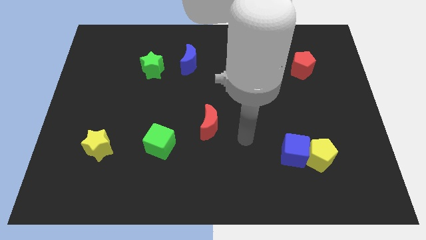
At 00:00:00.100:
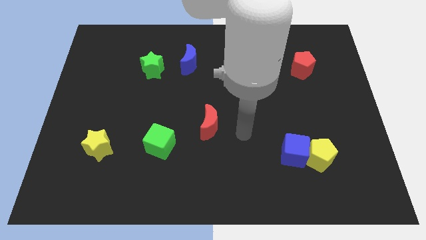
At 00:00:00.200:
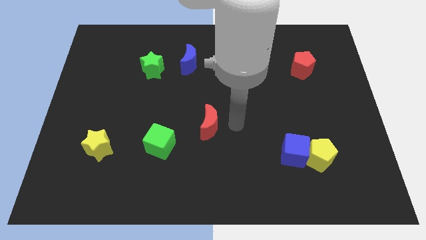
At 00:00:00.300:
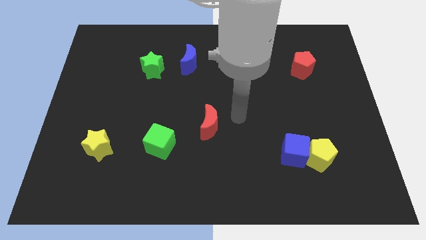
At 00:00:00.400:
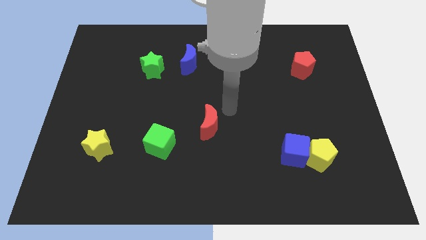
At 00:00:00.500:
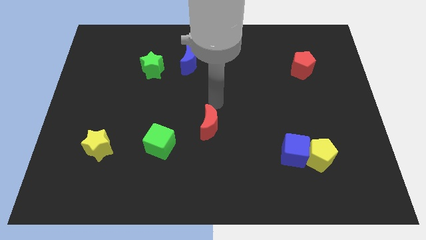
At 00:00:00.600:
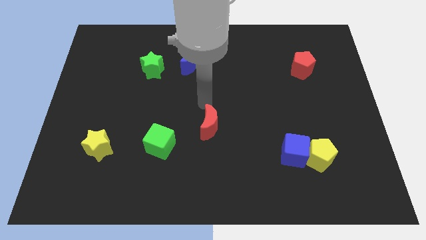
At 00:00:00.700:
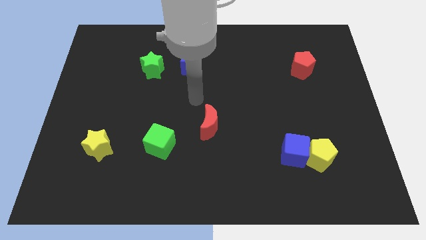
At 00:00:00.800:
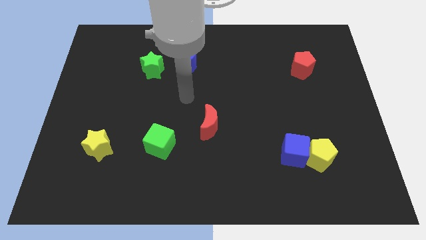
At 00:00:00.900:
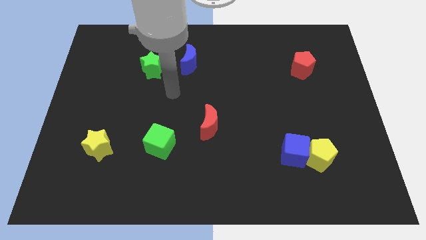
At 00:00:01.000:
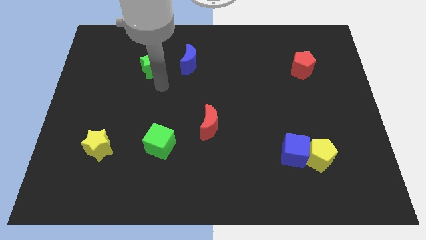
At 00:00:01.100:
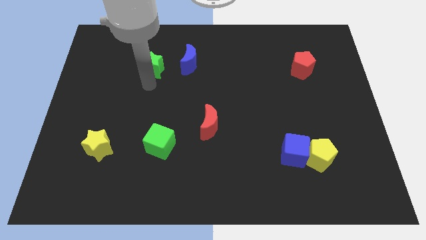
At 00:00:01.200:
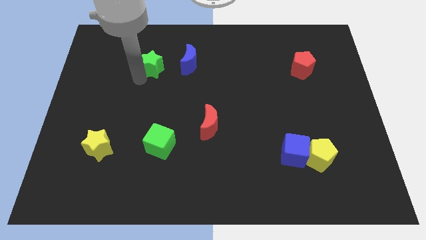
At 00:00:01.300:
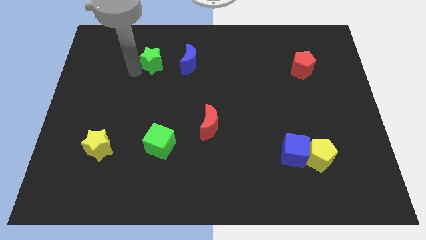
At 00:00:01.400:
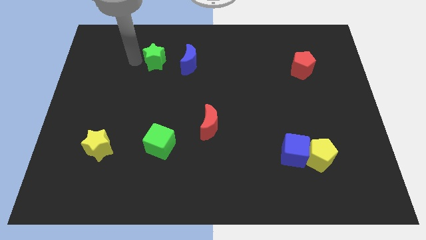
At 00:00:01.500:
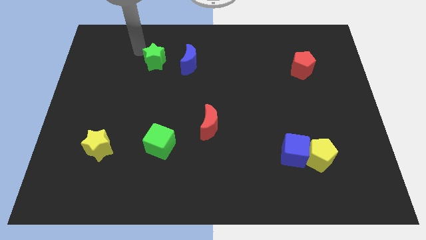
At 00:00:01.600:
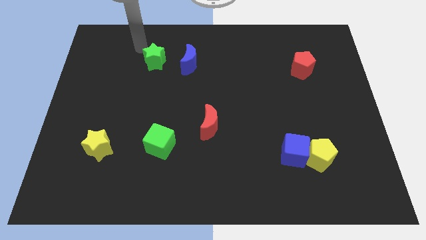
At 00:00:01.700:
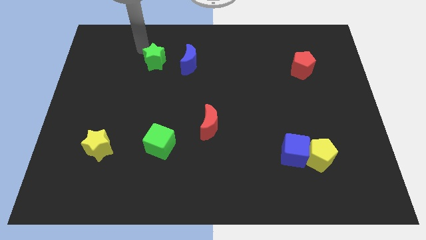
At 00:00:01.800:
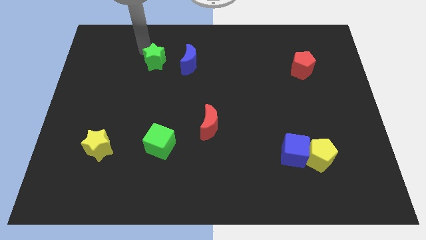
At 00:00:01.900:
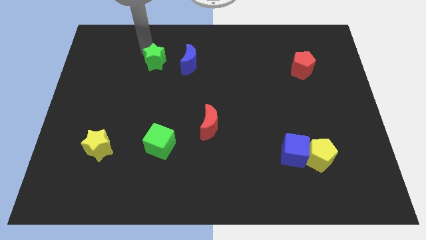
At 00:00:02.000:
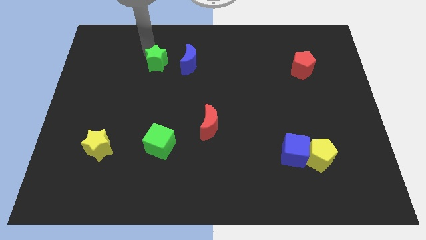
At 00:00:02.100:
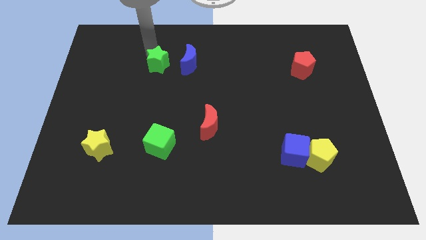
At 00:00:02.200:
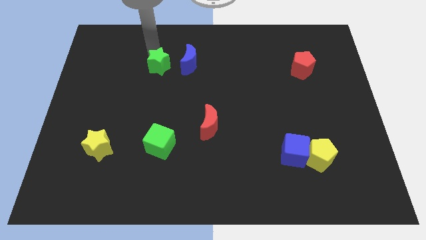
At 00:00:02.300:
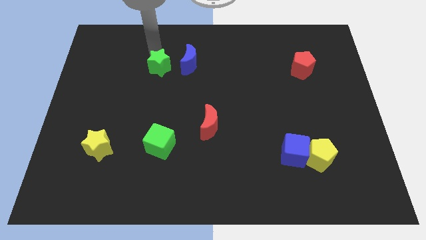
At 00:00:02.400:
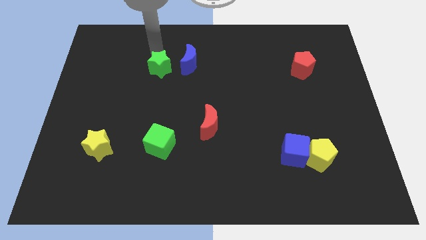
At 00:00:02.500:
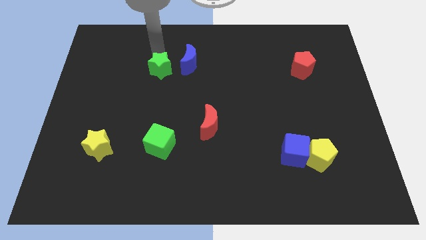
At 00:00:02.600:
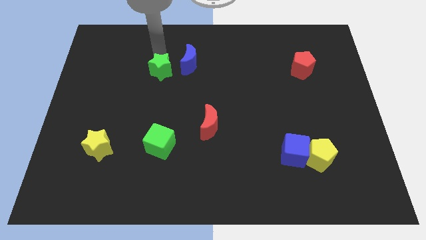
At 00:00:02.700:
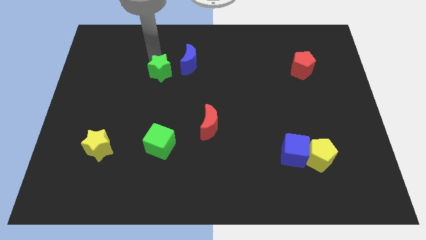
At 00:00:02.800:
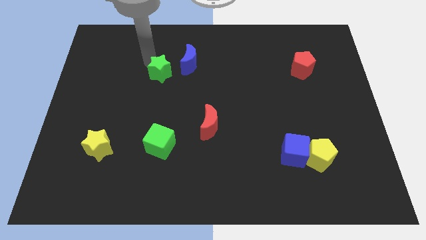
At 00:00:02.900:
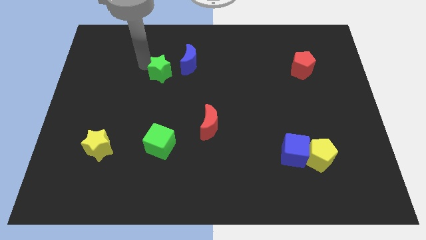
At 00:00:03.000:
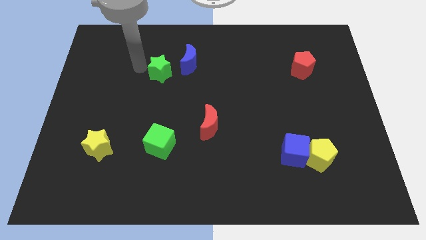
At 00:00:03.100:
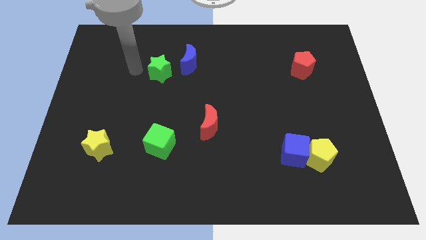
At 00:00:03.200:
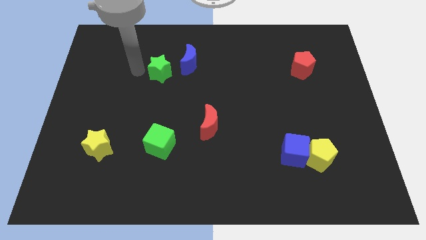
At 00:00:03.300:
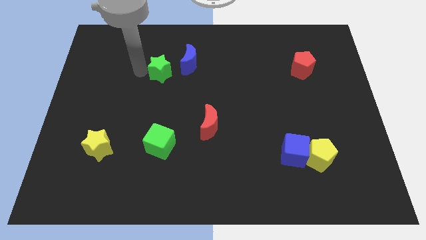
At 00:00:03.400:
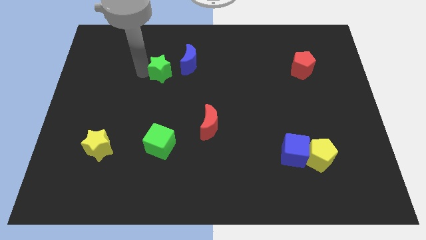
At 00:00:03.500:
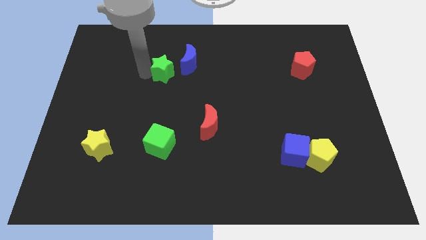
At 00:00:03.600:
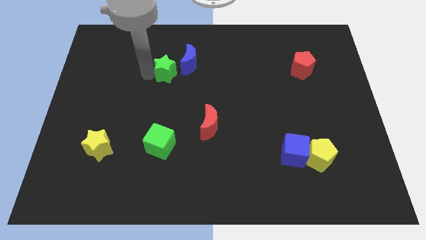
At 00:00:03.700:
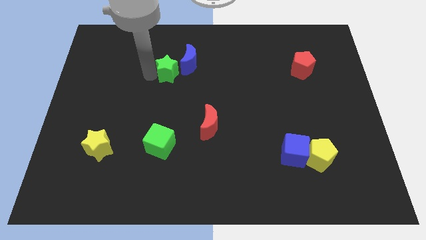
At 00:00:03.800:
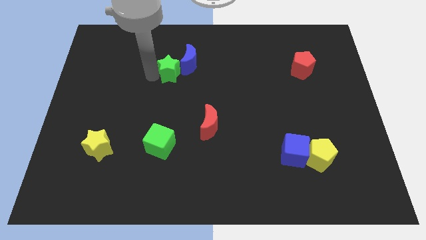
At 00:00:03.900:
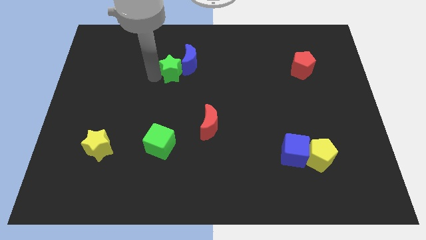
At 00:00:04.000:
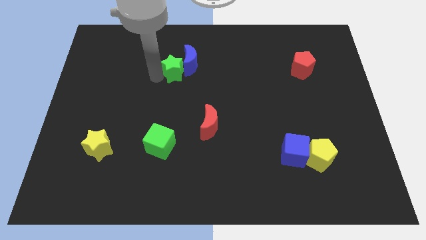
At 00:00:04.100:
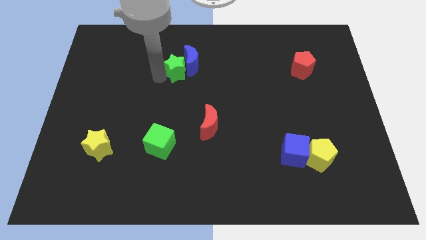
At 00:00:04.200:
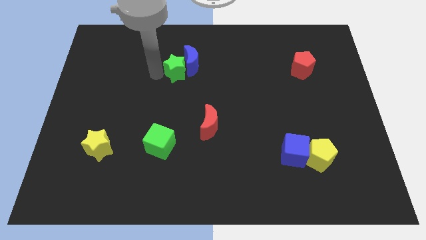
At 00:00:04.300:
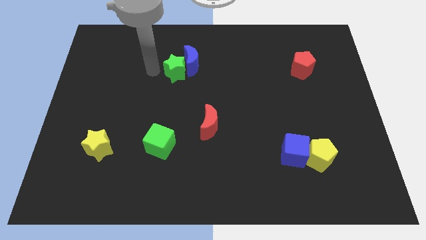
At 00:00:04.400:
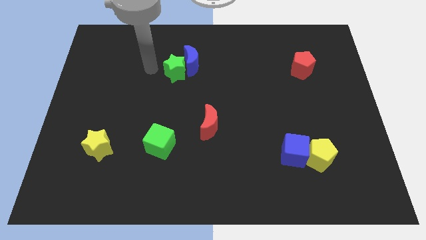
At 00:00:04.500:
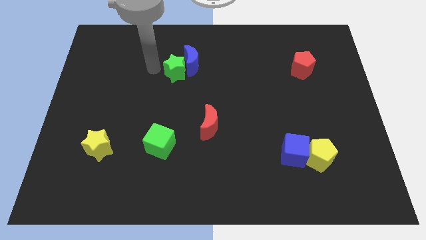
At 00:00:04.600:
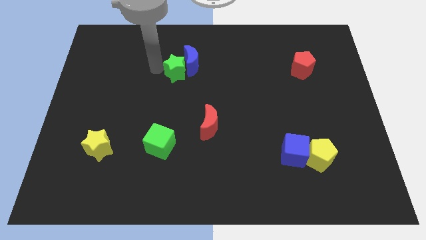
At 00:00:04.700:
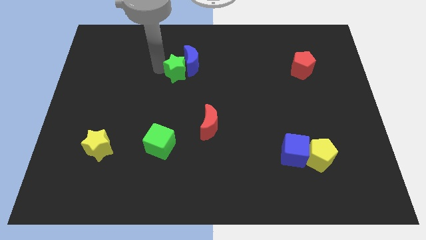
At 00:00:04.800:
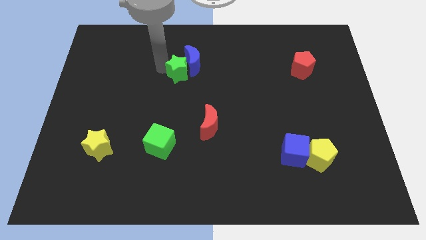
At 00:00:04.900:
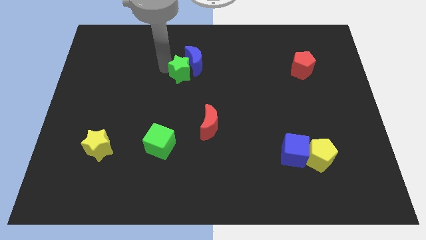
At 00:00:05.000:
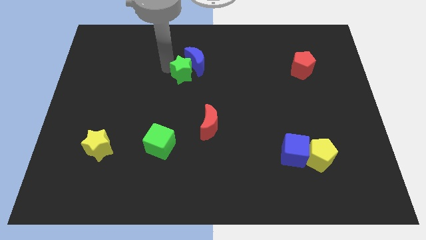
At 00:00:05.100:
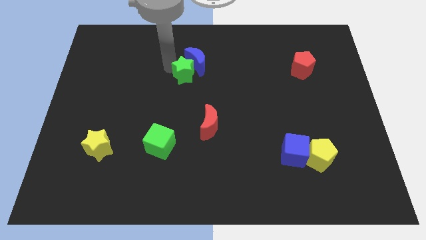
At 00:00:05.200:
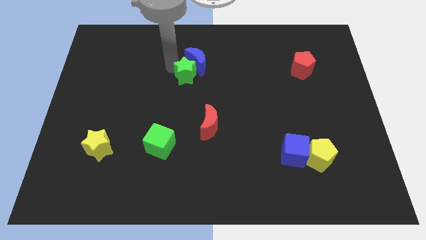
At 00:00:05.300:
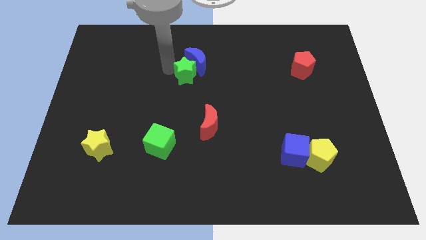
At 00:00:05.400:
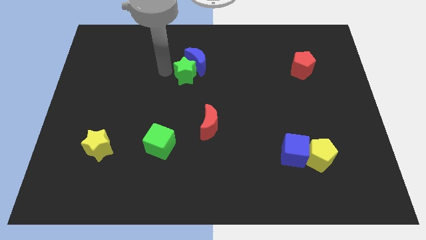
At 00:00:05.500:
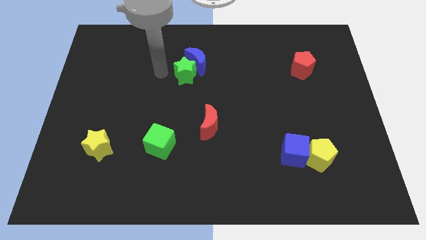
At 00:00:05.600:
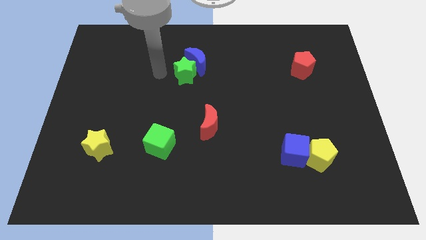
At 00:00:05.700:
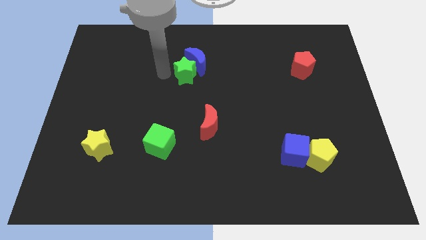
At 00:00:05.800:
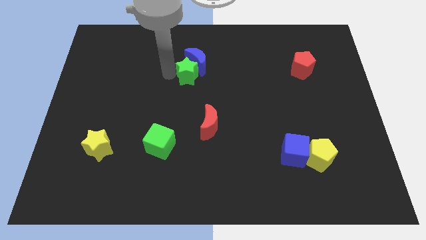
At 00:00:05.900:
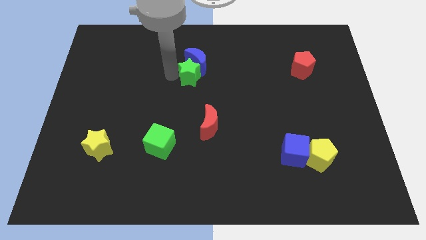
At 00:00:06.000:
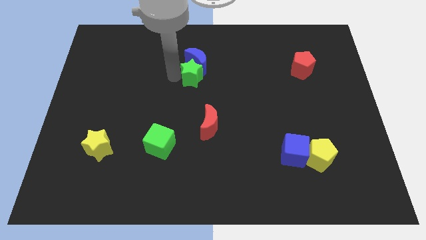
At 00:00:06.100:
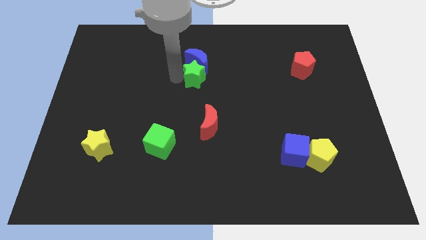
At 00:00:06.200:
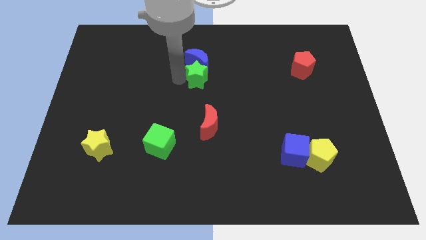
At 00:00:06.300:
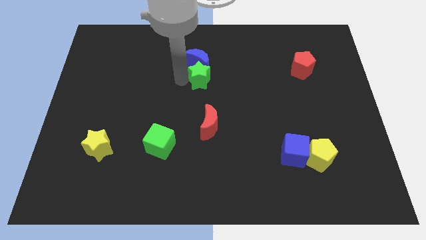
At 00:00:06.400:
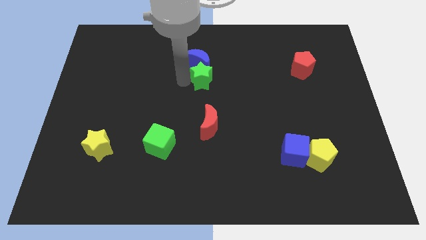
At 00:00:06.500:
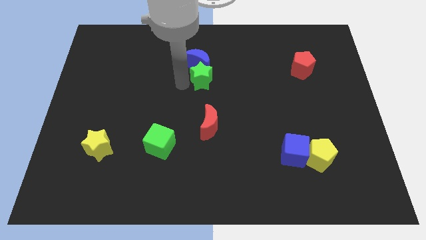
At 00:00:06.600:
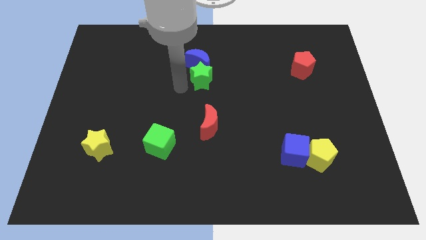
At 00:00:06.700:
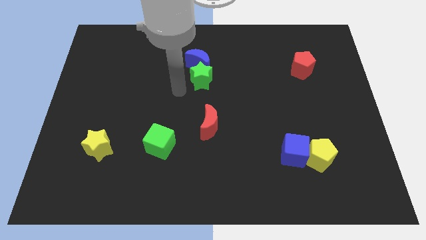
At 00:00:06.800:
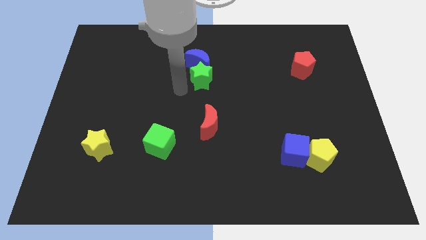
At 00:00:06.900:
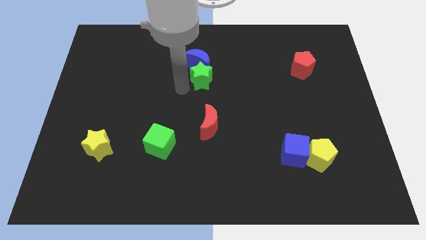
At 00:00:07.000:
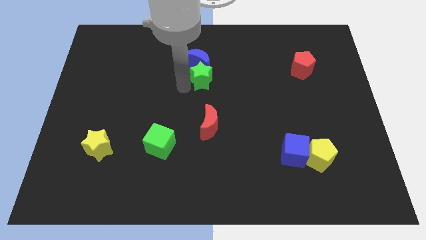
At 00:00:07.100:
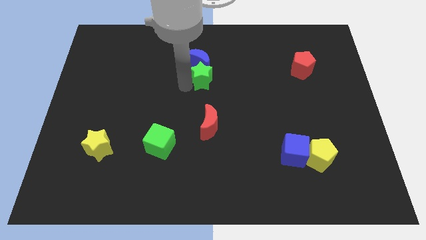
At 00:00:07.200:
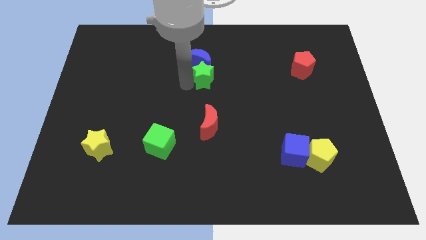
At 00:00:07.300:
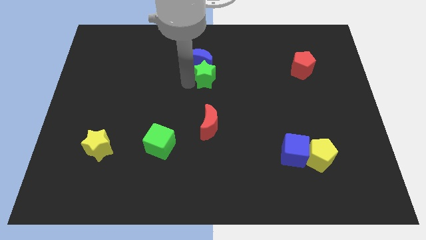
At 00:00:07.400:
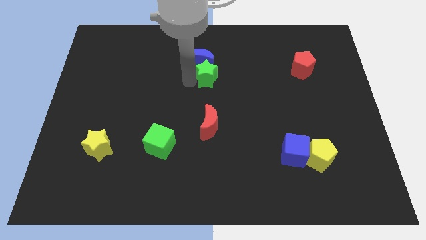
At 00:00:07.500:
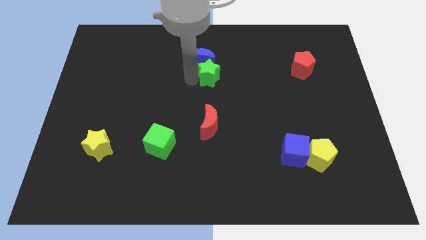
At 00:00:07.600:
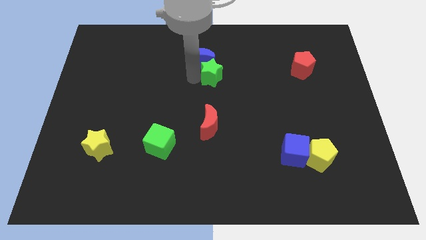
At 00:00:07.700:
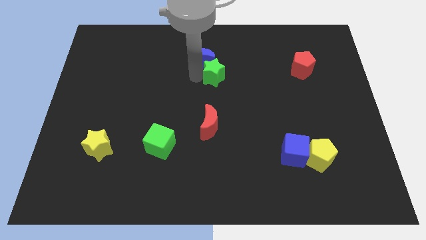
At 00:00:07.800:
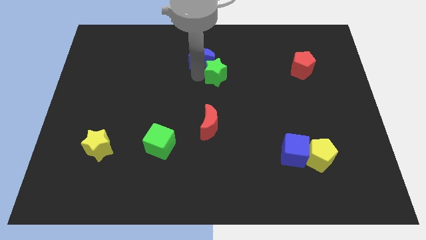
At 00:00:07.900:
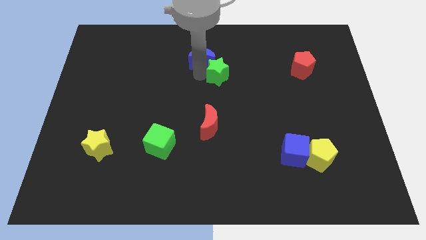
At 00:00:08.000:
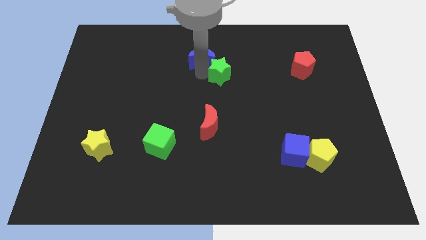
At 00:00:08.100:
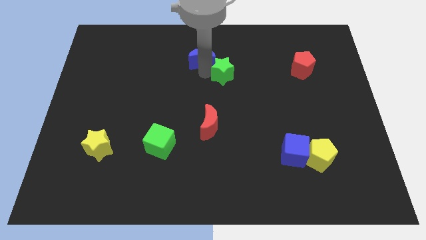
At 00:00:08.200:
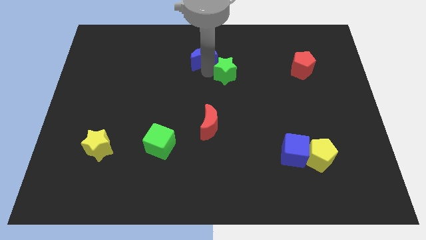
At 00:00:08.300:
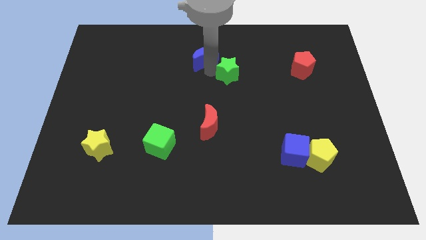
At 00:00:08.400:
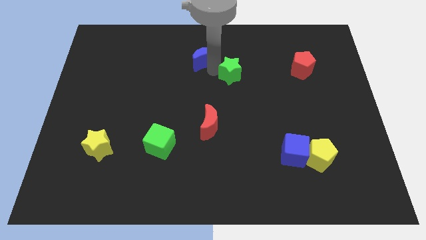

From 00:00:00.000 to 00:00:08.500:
slide the green star to the right
